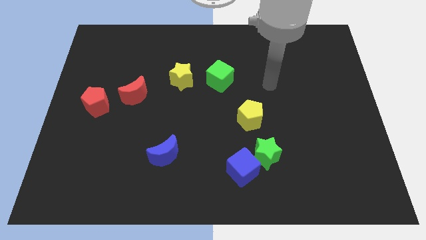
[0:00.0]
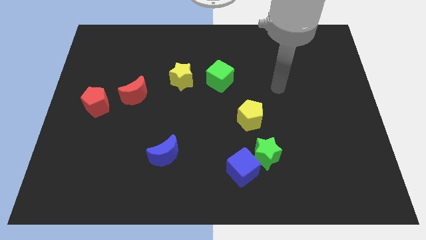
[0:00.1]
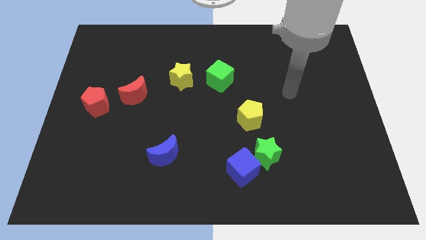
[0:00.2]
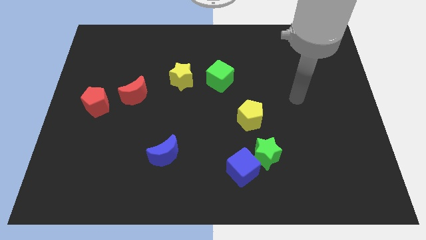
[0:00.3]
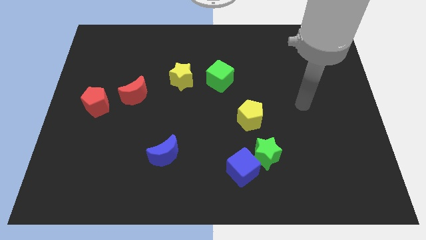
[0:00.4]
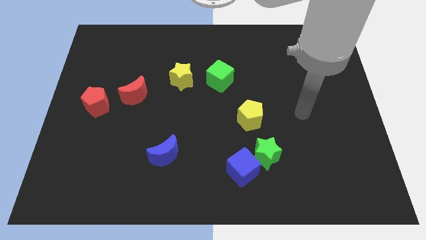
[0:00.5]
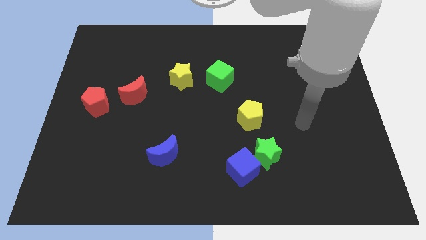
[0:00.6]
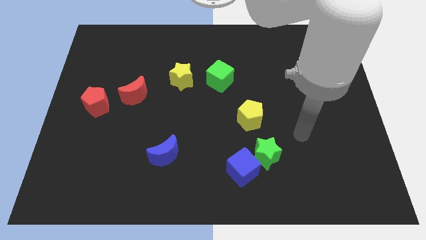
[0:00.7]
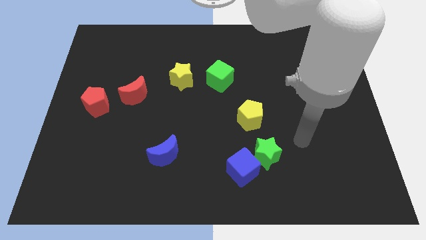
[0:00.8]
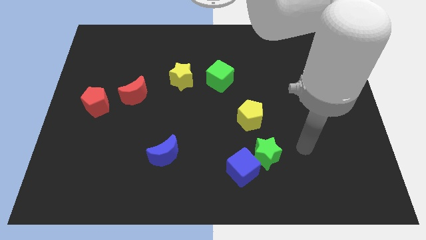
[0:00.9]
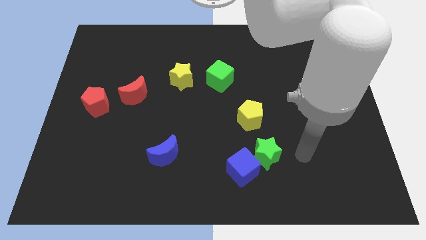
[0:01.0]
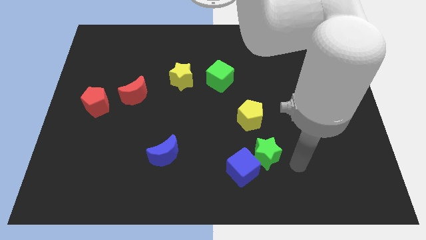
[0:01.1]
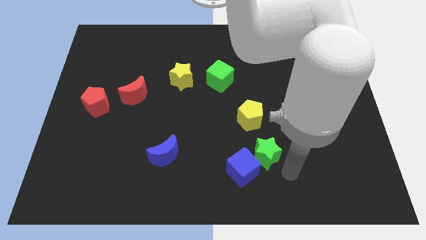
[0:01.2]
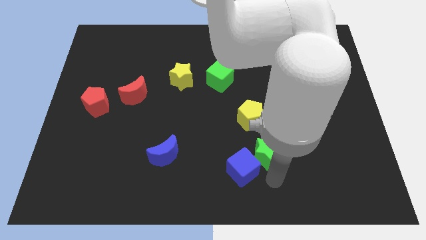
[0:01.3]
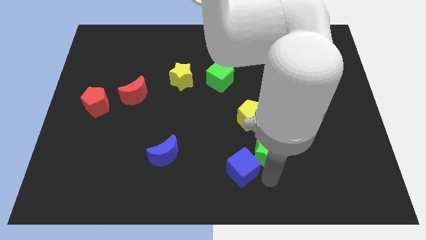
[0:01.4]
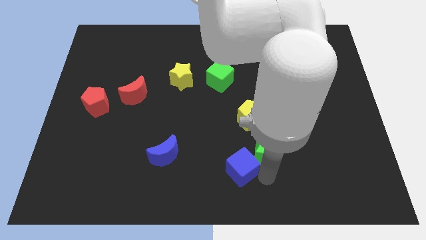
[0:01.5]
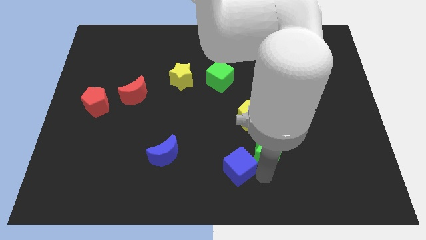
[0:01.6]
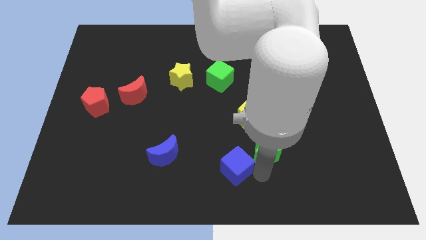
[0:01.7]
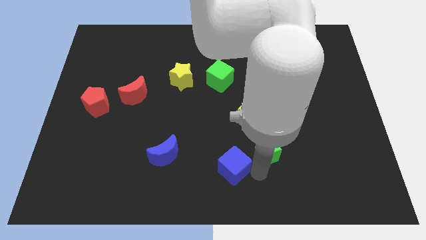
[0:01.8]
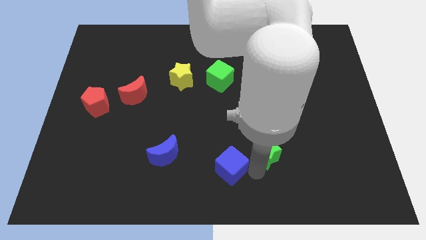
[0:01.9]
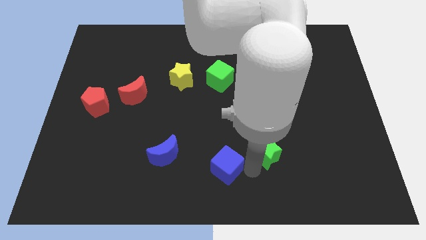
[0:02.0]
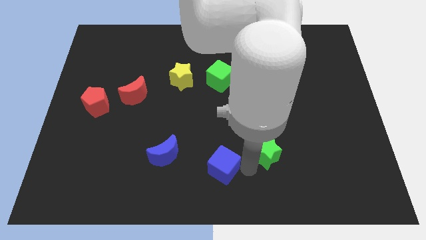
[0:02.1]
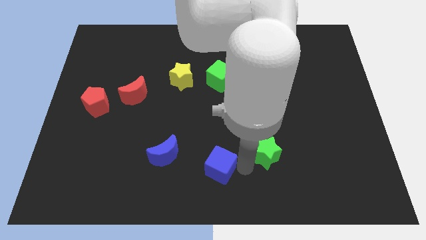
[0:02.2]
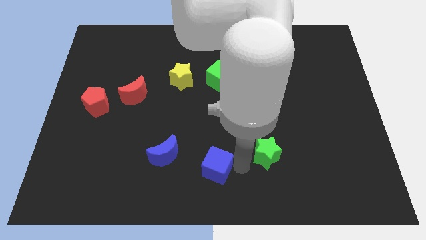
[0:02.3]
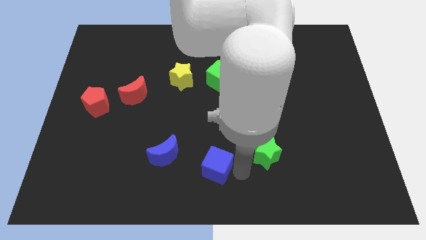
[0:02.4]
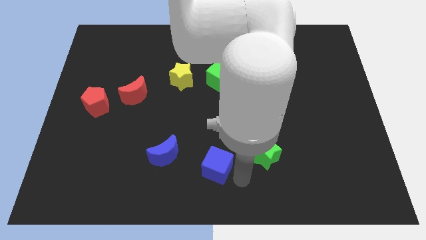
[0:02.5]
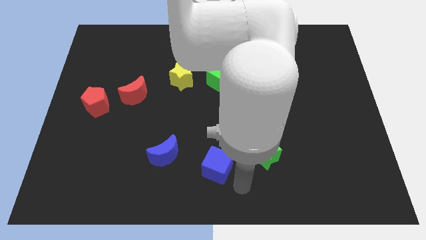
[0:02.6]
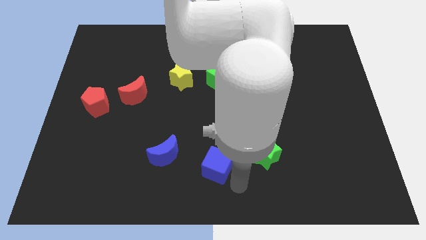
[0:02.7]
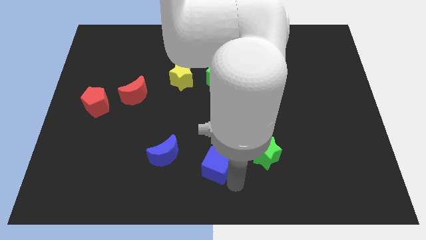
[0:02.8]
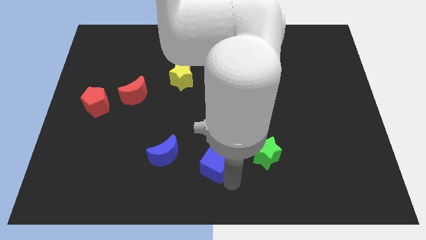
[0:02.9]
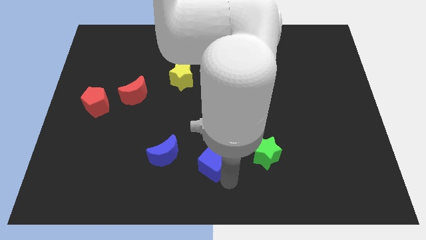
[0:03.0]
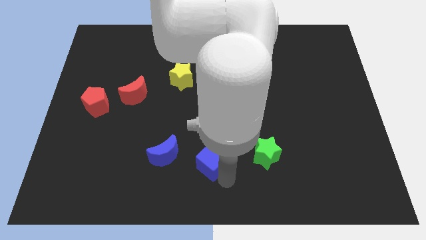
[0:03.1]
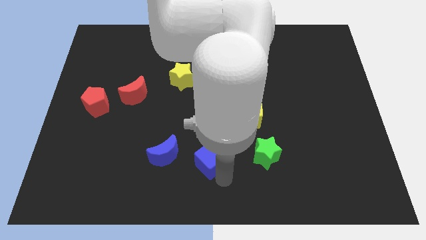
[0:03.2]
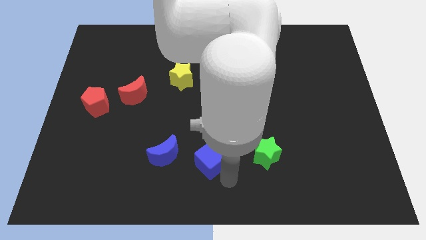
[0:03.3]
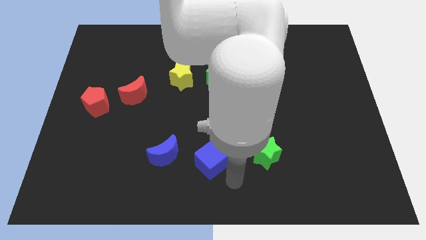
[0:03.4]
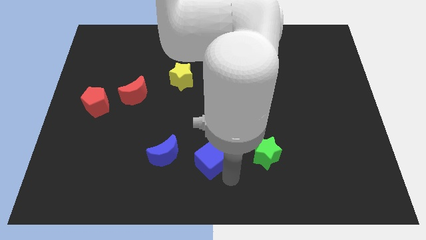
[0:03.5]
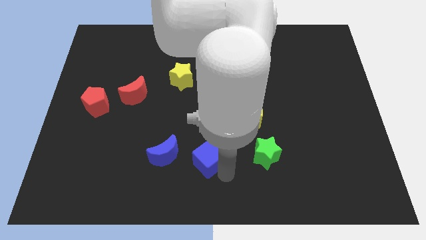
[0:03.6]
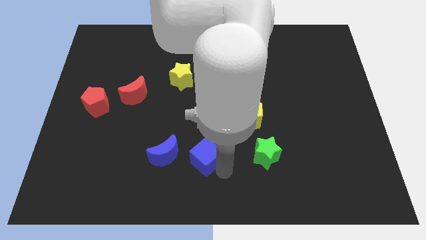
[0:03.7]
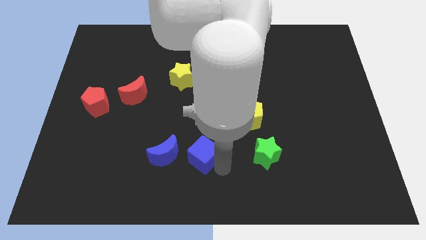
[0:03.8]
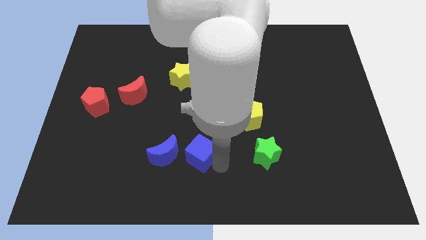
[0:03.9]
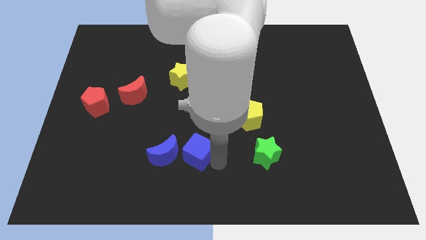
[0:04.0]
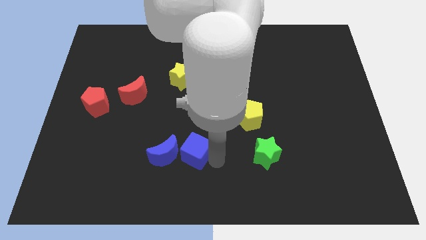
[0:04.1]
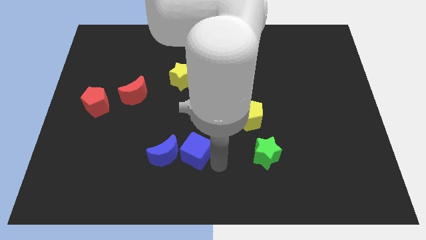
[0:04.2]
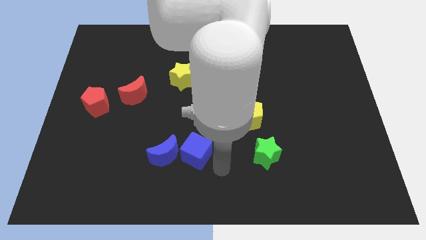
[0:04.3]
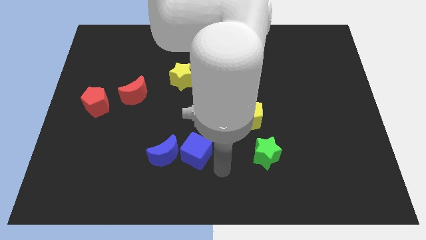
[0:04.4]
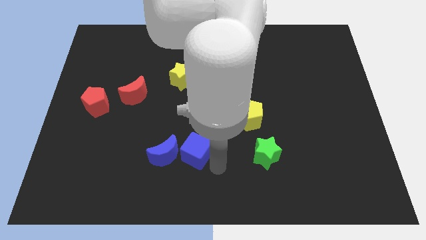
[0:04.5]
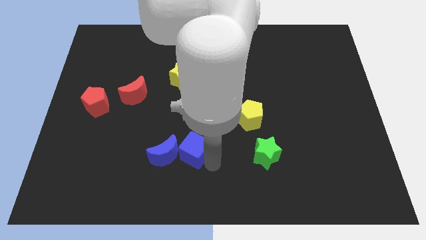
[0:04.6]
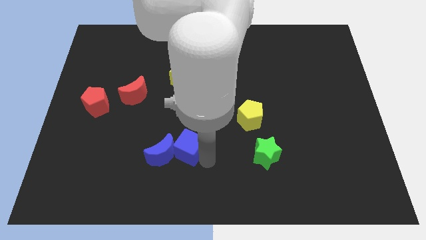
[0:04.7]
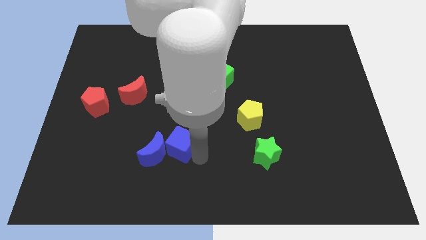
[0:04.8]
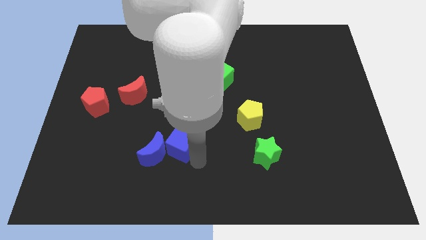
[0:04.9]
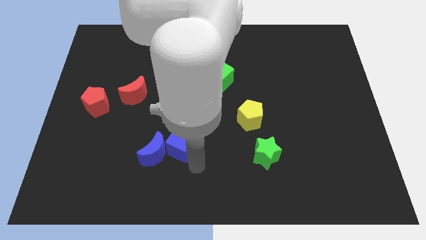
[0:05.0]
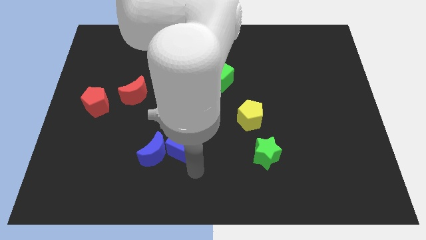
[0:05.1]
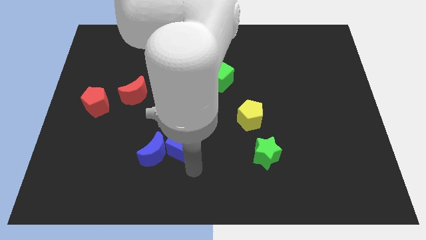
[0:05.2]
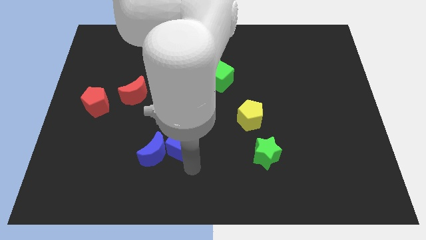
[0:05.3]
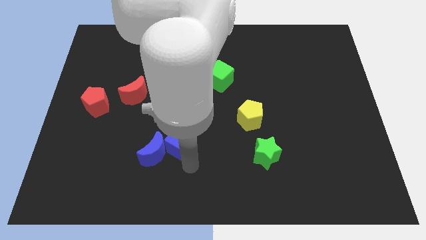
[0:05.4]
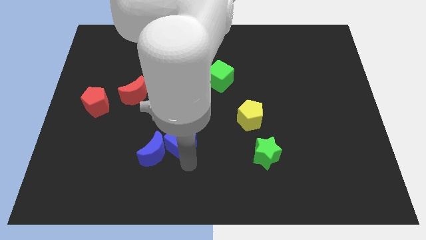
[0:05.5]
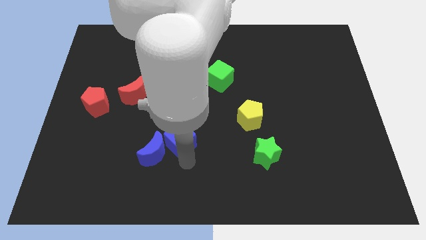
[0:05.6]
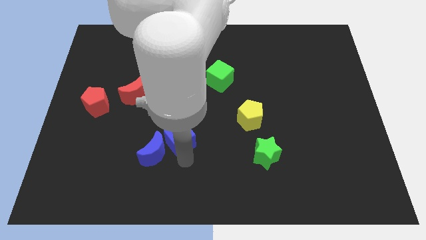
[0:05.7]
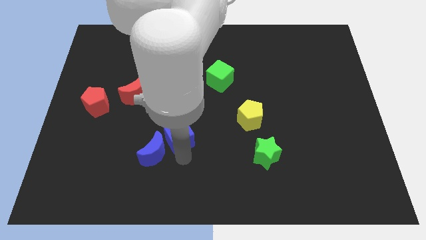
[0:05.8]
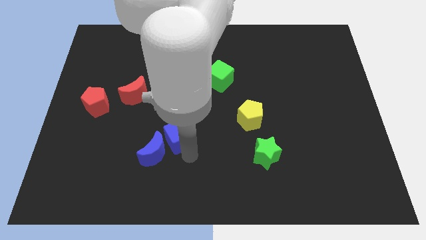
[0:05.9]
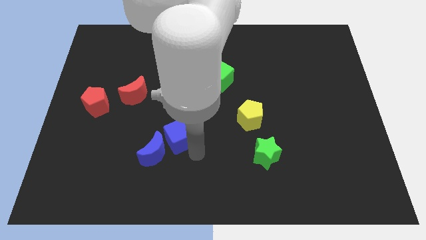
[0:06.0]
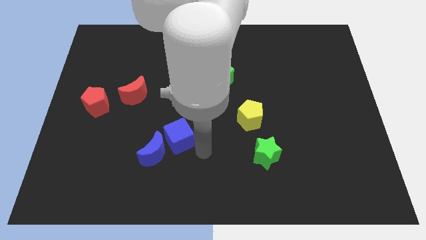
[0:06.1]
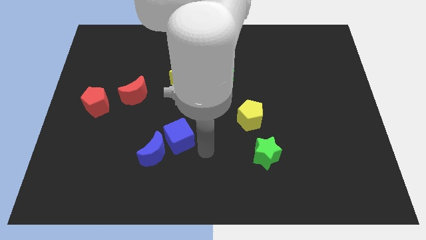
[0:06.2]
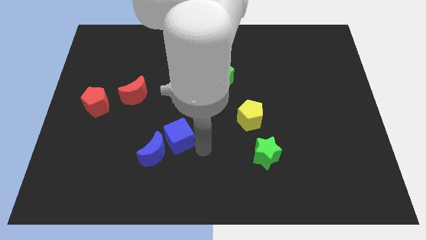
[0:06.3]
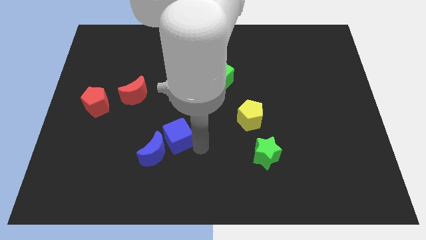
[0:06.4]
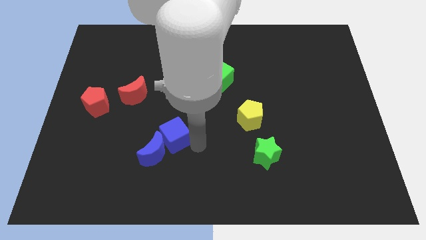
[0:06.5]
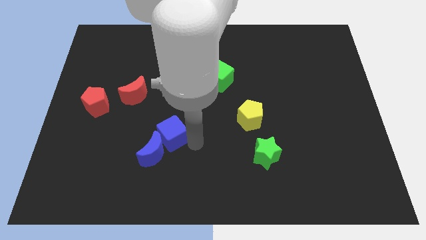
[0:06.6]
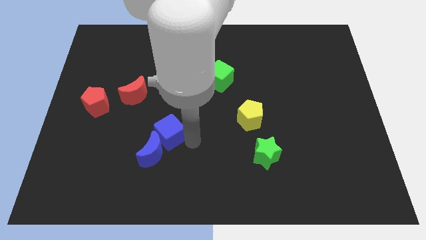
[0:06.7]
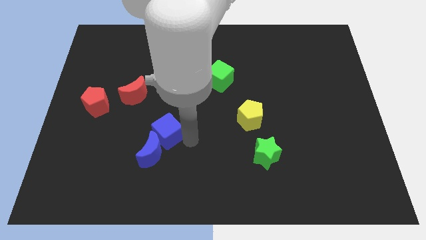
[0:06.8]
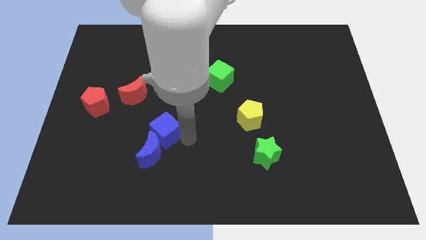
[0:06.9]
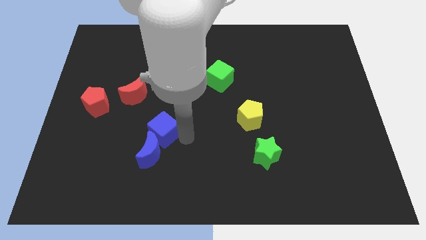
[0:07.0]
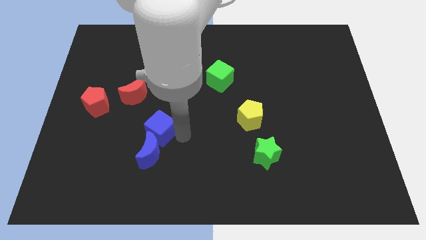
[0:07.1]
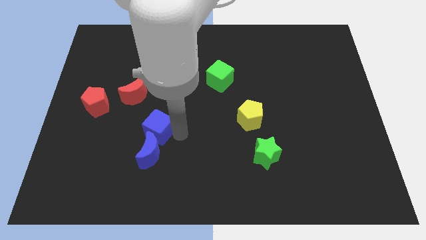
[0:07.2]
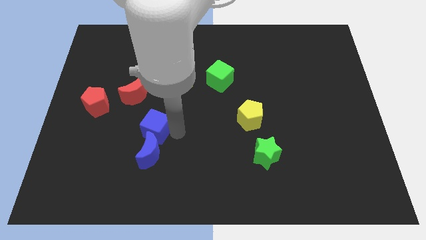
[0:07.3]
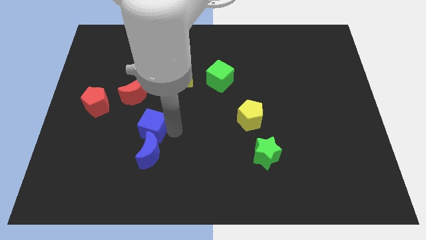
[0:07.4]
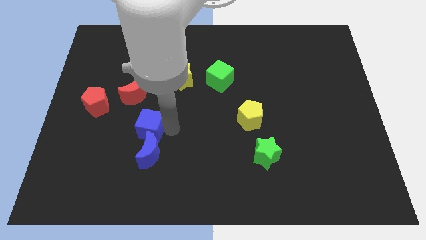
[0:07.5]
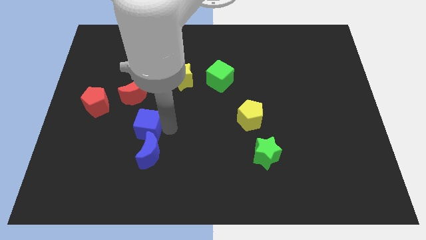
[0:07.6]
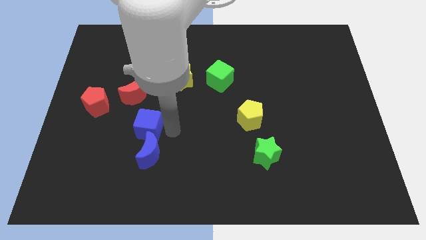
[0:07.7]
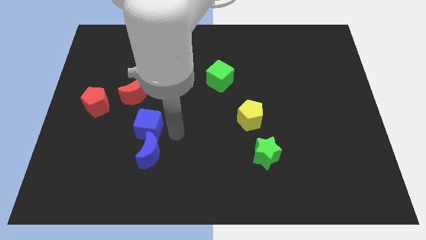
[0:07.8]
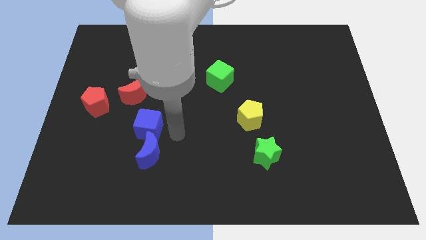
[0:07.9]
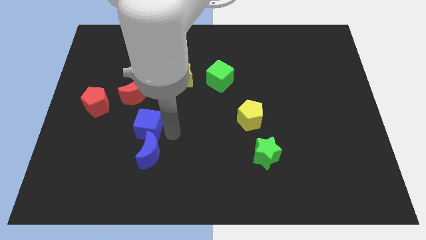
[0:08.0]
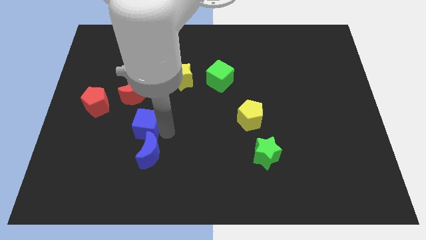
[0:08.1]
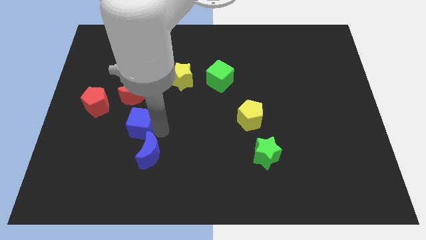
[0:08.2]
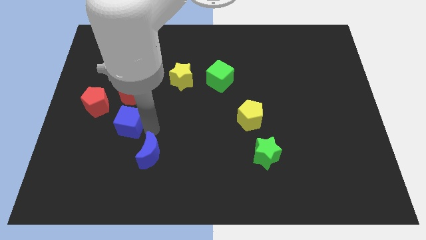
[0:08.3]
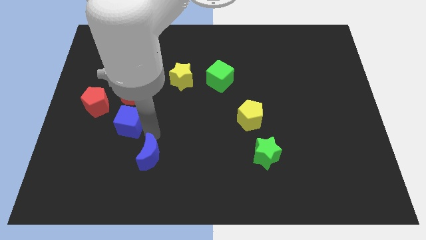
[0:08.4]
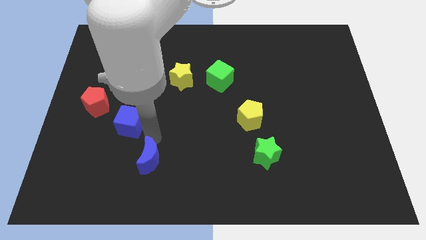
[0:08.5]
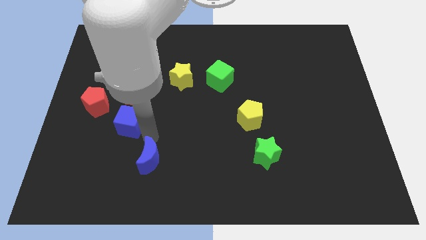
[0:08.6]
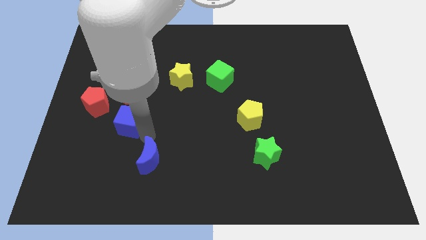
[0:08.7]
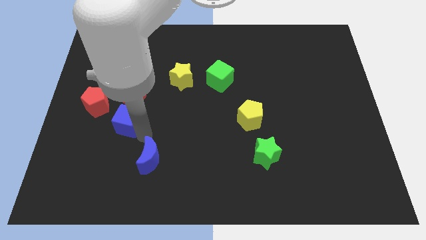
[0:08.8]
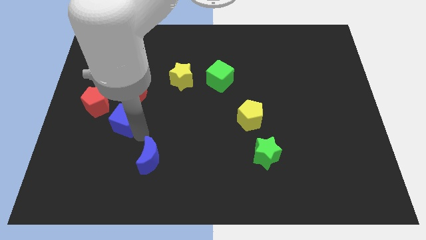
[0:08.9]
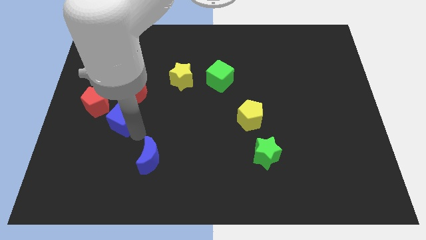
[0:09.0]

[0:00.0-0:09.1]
push the blue cube diagonally down and to the left of the red moon
